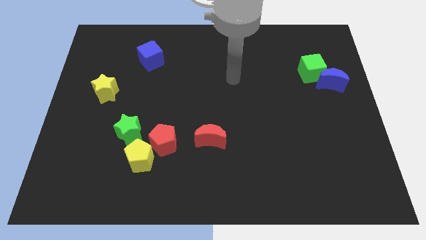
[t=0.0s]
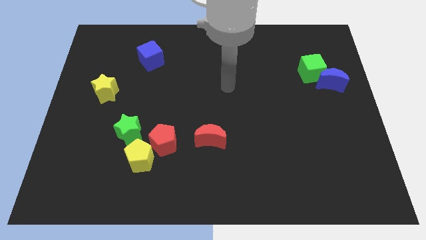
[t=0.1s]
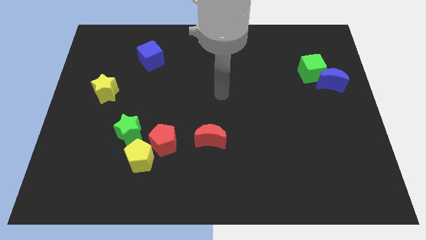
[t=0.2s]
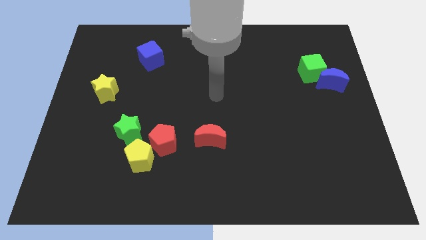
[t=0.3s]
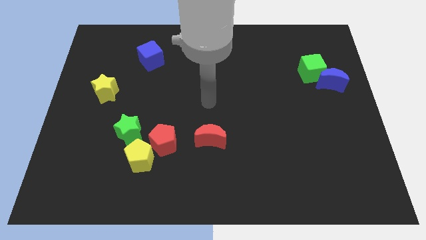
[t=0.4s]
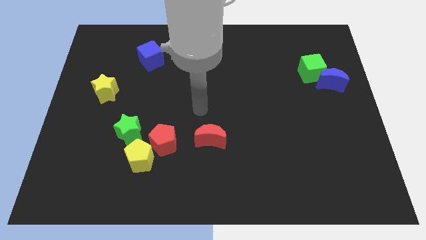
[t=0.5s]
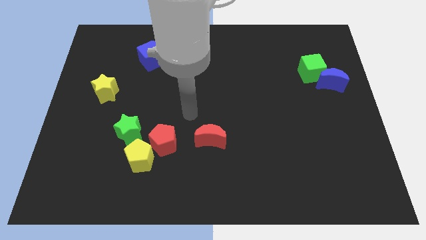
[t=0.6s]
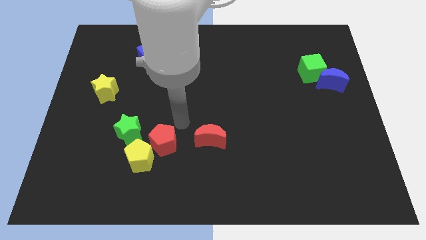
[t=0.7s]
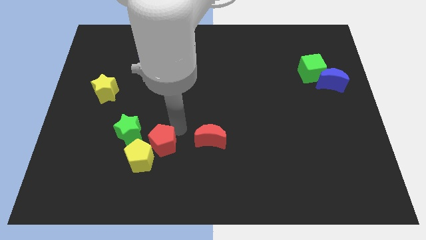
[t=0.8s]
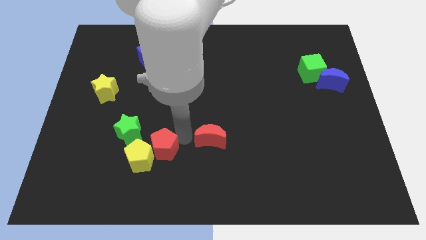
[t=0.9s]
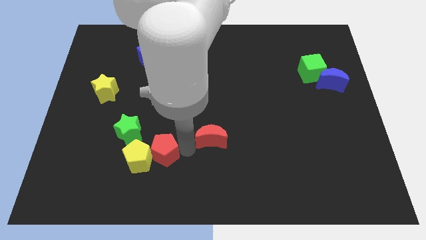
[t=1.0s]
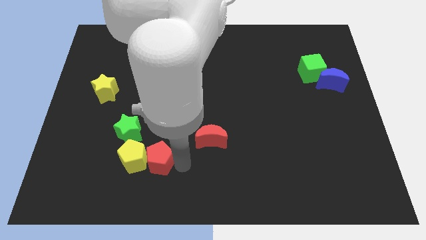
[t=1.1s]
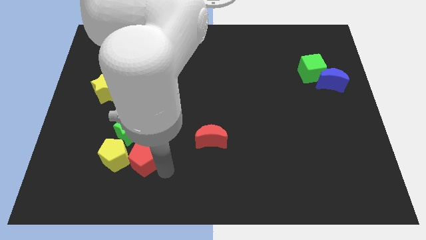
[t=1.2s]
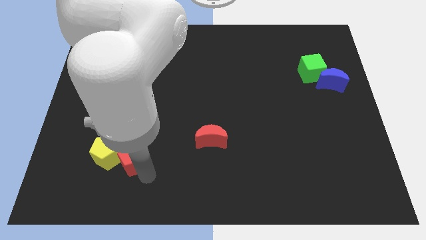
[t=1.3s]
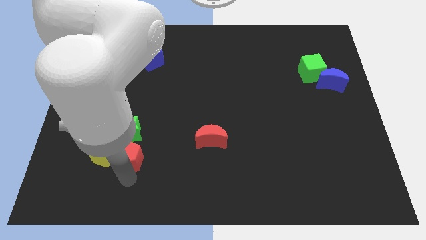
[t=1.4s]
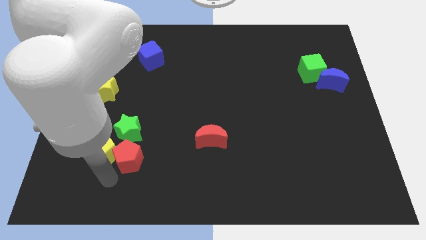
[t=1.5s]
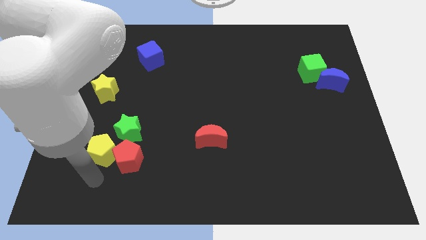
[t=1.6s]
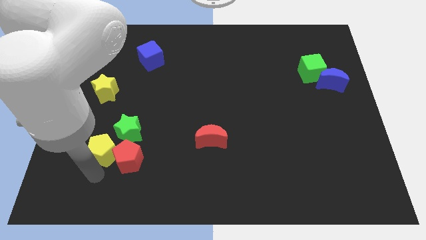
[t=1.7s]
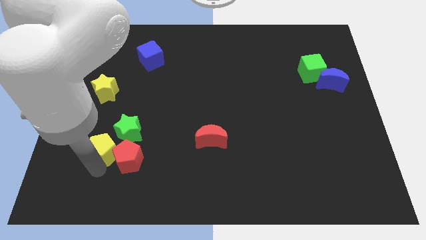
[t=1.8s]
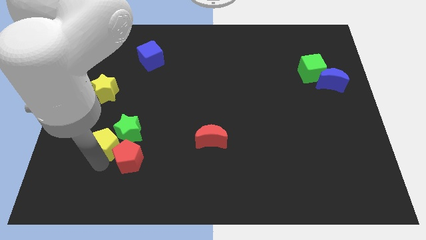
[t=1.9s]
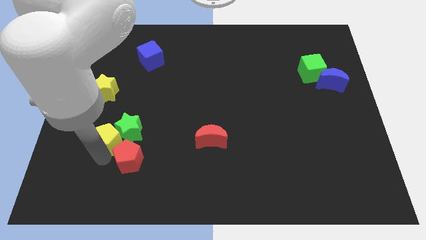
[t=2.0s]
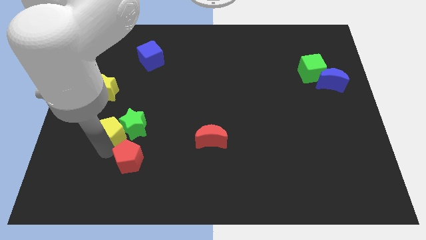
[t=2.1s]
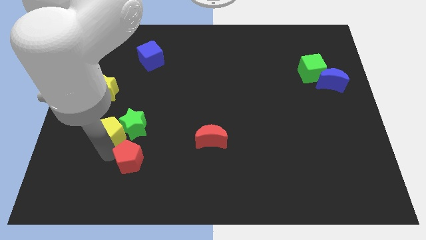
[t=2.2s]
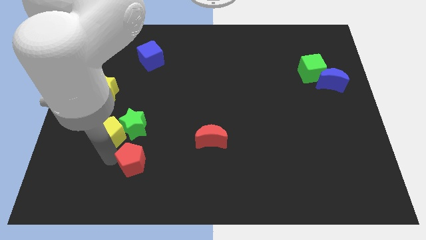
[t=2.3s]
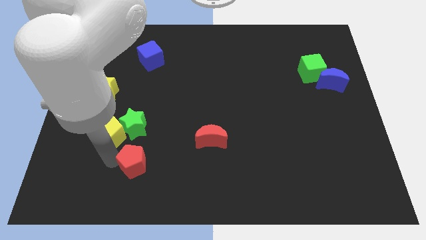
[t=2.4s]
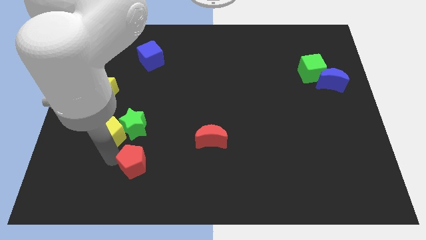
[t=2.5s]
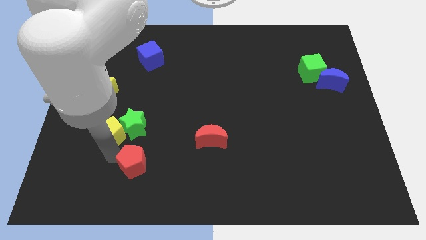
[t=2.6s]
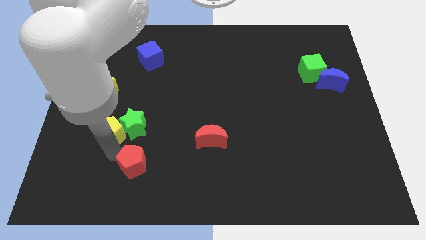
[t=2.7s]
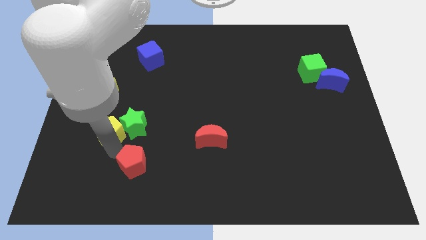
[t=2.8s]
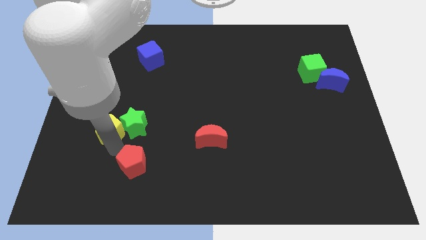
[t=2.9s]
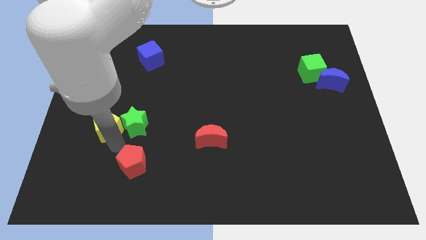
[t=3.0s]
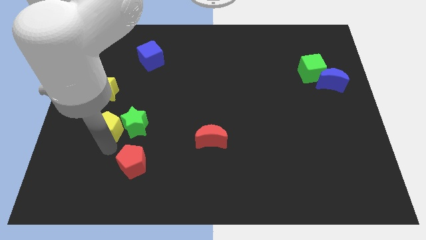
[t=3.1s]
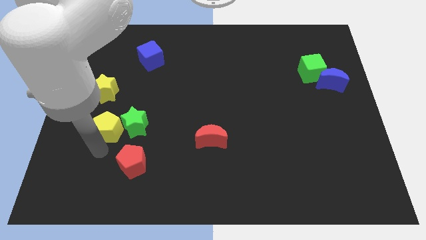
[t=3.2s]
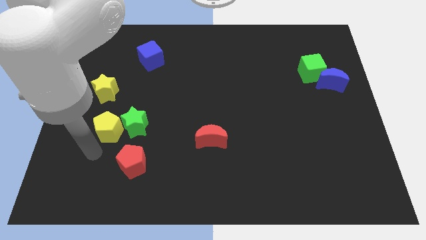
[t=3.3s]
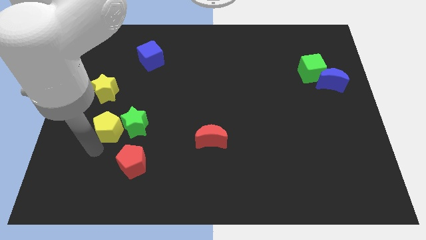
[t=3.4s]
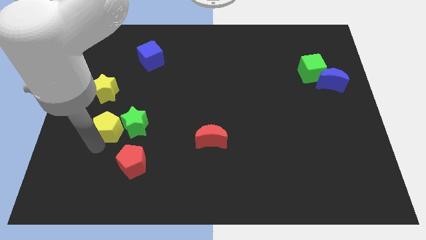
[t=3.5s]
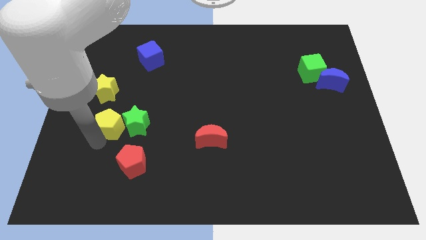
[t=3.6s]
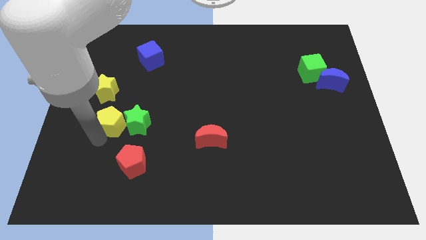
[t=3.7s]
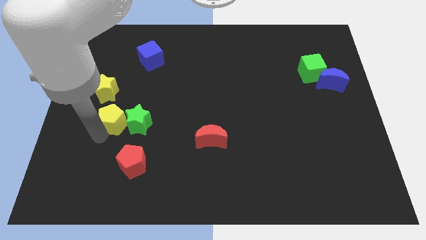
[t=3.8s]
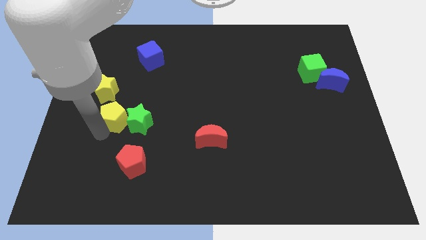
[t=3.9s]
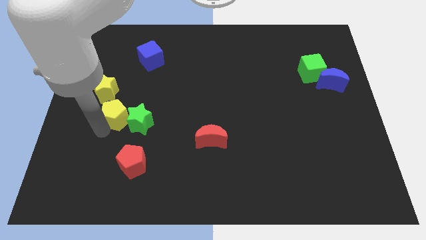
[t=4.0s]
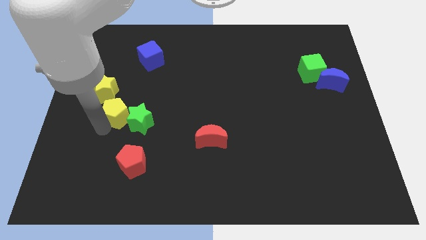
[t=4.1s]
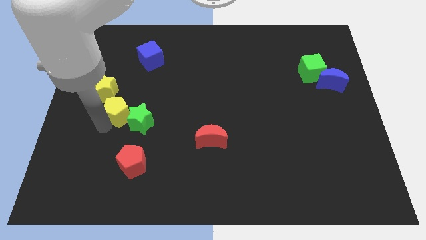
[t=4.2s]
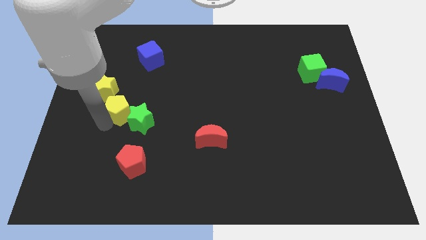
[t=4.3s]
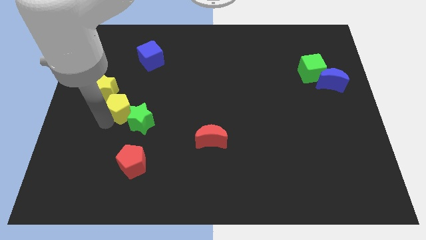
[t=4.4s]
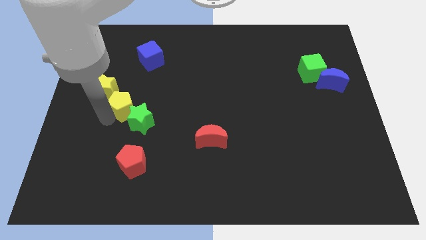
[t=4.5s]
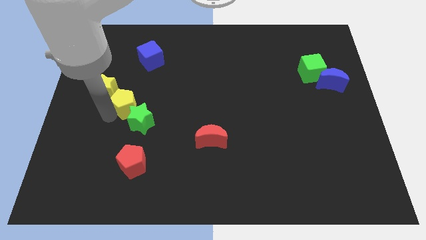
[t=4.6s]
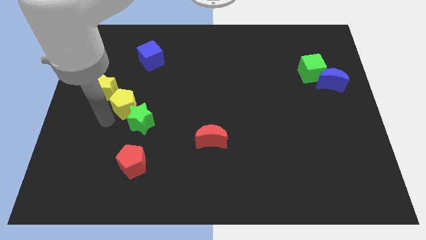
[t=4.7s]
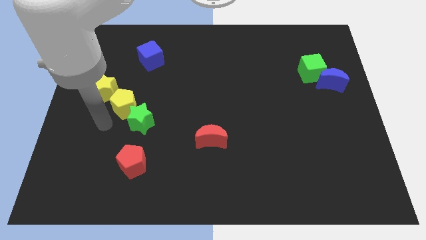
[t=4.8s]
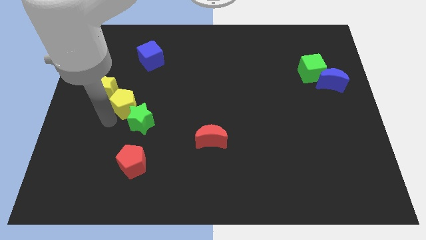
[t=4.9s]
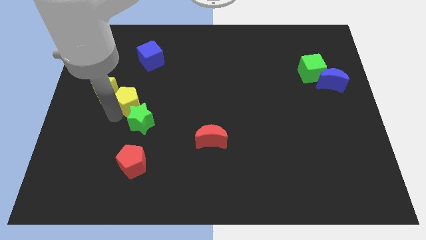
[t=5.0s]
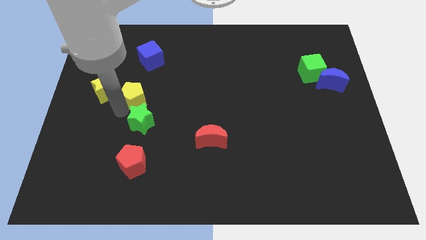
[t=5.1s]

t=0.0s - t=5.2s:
move the yellow pentagon to the bottom of the blue cube

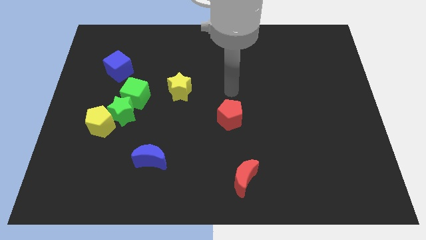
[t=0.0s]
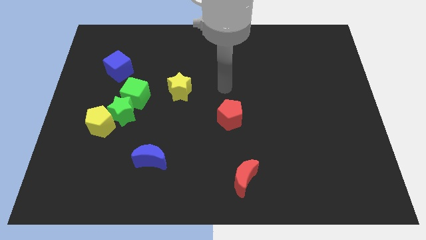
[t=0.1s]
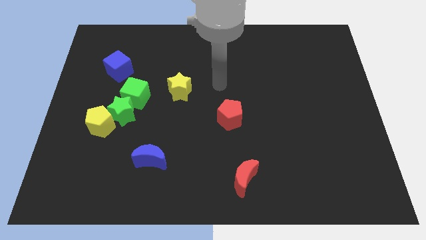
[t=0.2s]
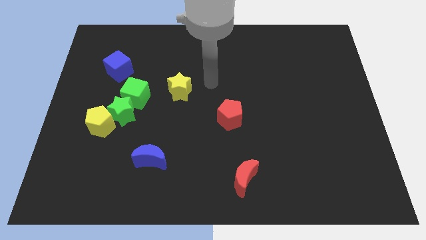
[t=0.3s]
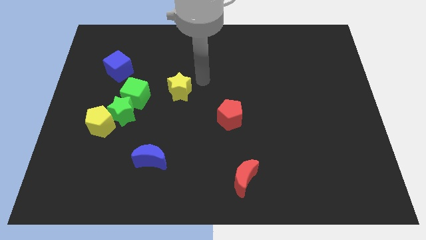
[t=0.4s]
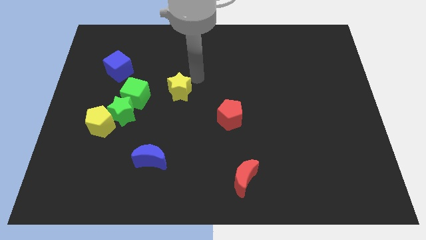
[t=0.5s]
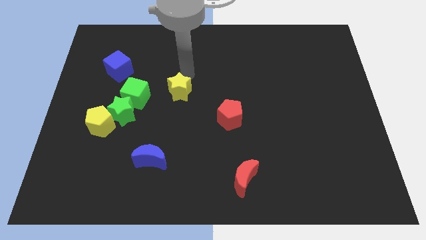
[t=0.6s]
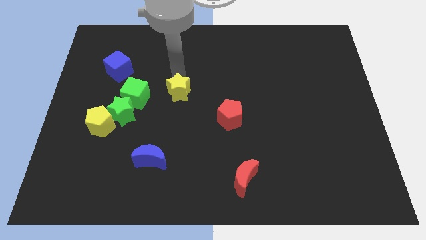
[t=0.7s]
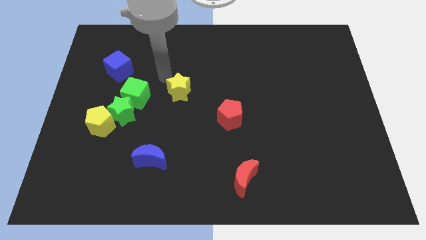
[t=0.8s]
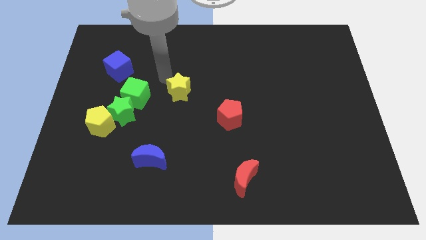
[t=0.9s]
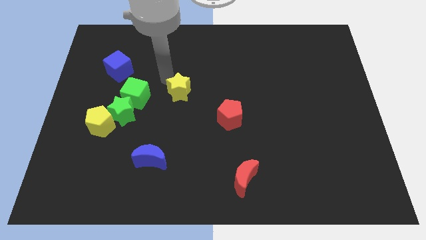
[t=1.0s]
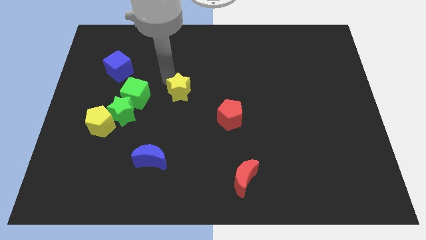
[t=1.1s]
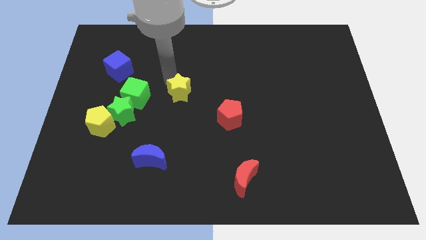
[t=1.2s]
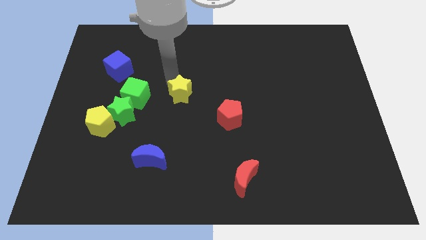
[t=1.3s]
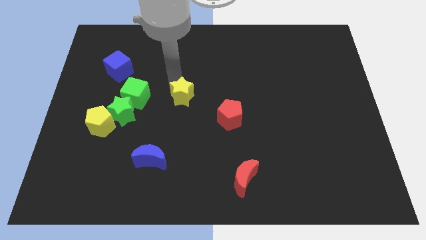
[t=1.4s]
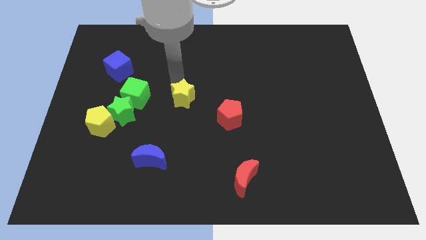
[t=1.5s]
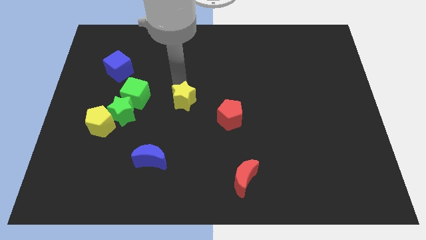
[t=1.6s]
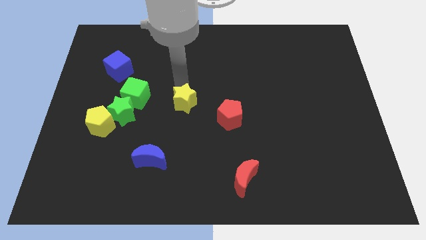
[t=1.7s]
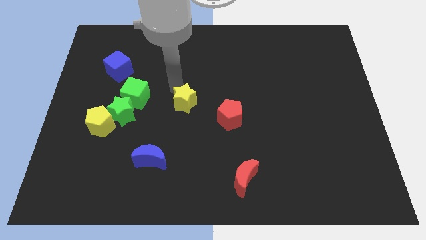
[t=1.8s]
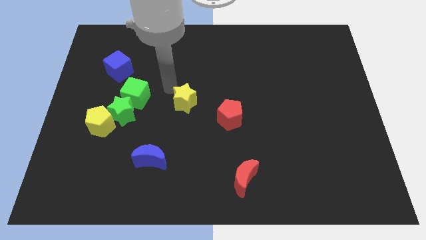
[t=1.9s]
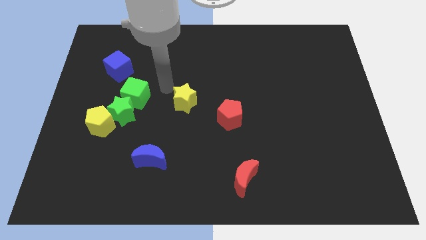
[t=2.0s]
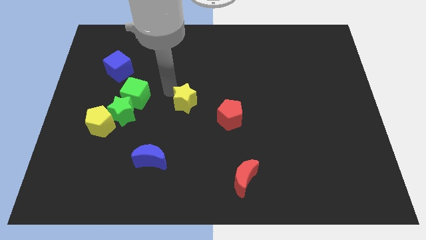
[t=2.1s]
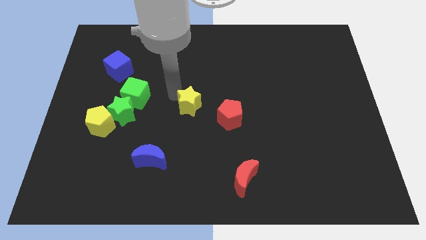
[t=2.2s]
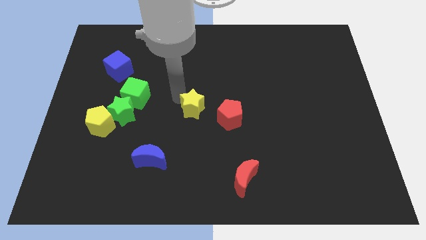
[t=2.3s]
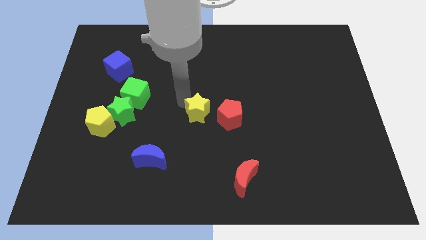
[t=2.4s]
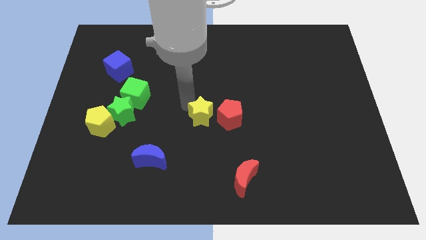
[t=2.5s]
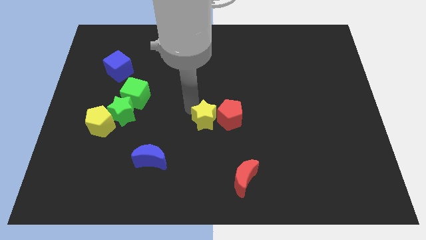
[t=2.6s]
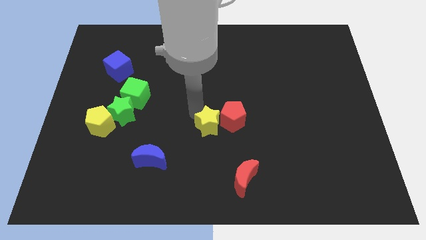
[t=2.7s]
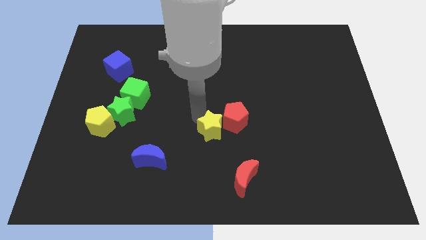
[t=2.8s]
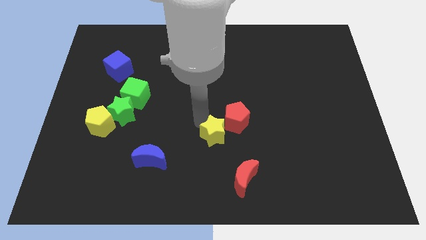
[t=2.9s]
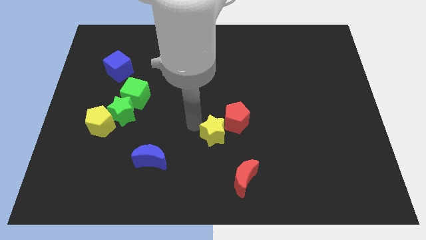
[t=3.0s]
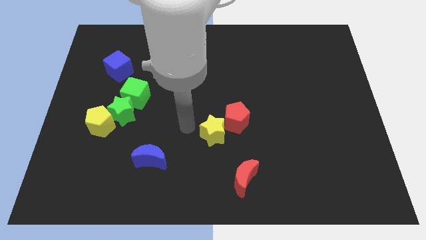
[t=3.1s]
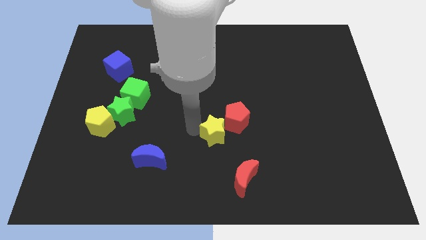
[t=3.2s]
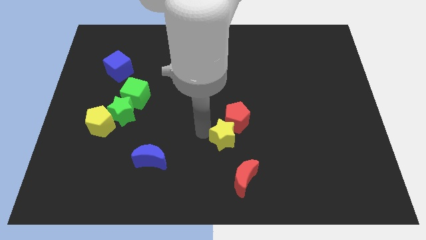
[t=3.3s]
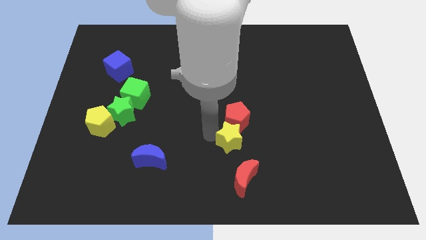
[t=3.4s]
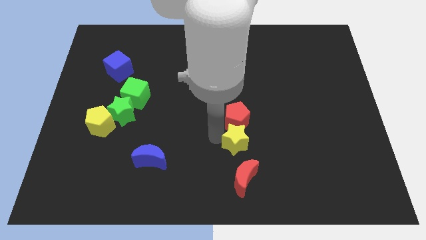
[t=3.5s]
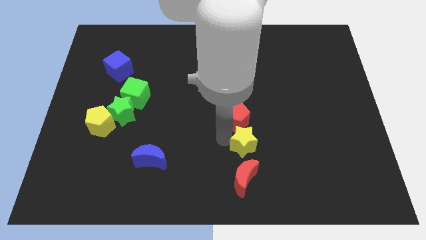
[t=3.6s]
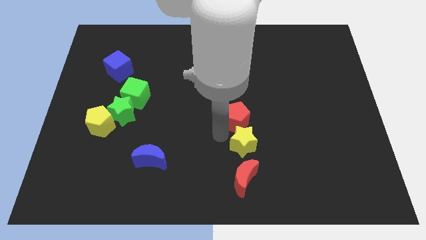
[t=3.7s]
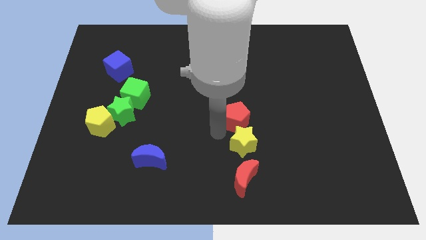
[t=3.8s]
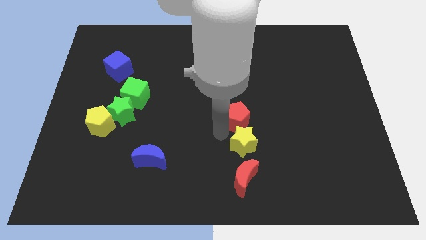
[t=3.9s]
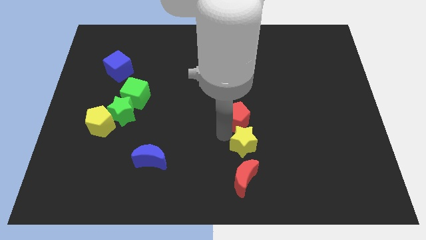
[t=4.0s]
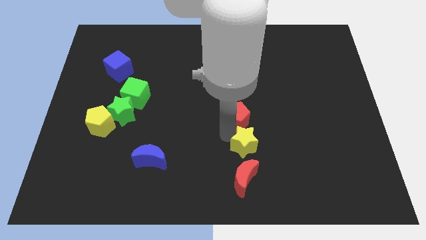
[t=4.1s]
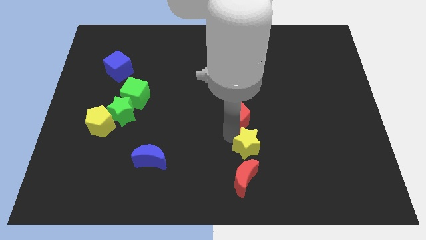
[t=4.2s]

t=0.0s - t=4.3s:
move the yellow star to the top right of the red moon
